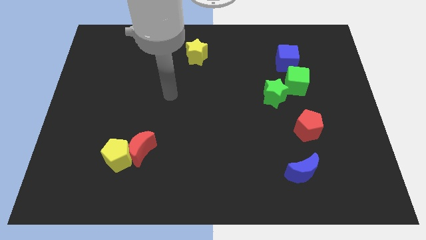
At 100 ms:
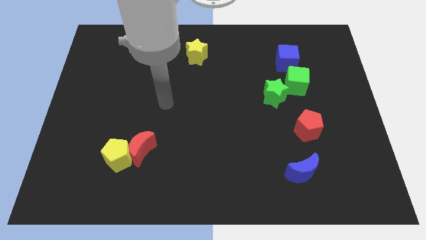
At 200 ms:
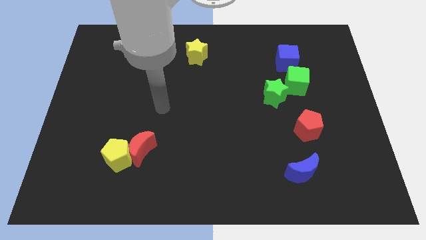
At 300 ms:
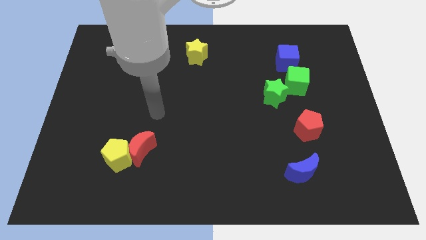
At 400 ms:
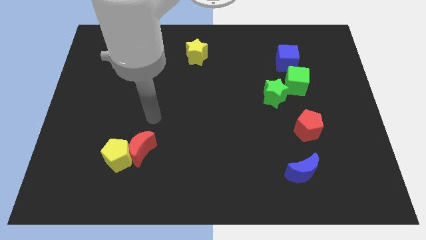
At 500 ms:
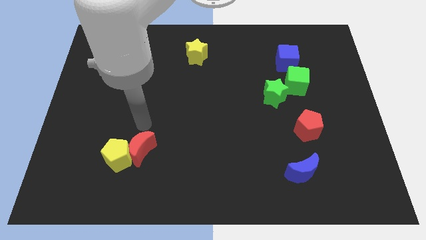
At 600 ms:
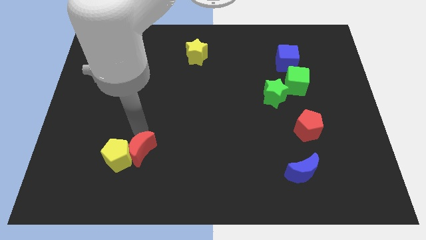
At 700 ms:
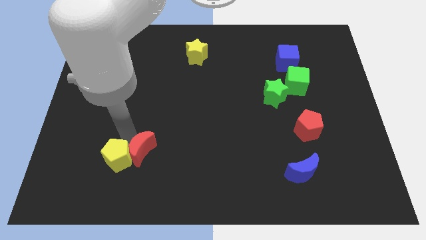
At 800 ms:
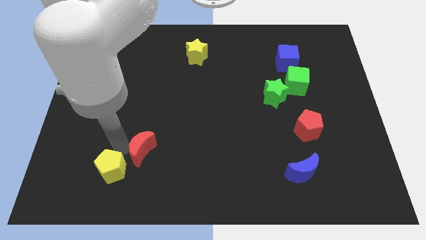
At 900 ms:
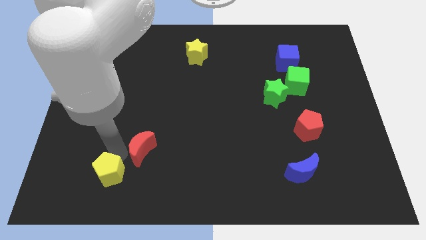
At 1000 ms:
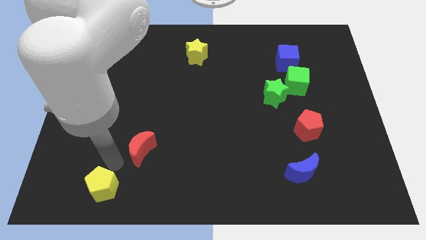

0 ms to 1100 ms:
pull the red moon apart from the yellow pentagon

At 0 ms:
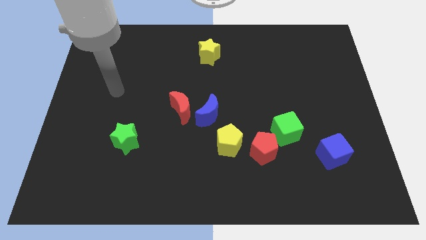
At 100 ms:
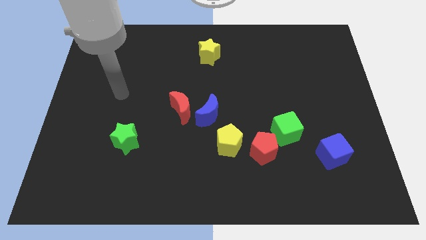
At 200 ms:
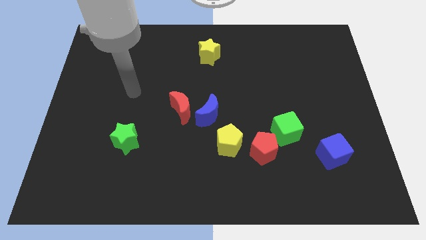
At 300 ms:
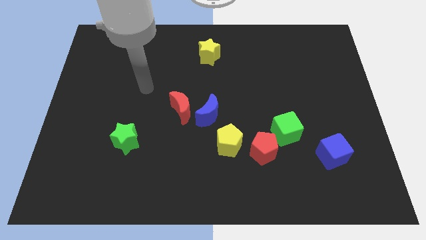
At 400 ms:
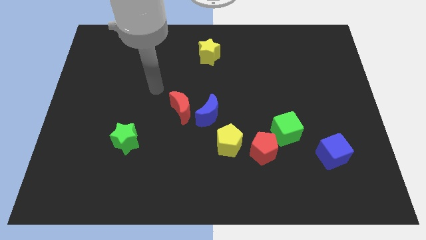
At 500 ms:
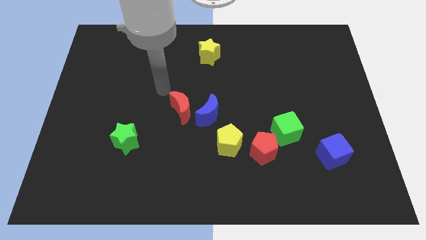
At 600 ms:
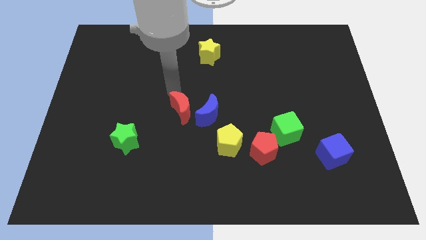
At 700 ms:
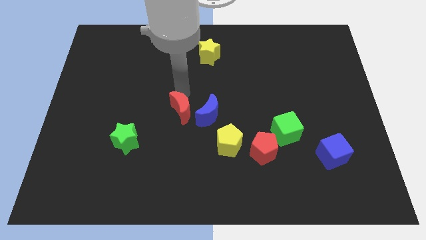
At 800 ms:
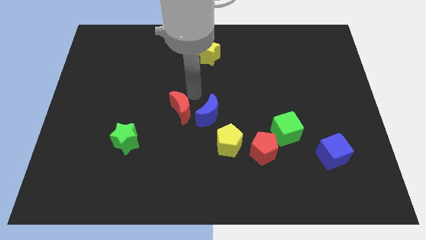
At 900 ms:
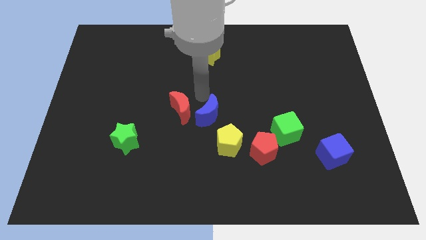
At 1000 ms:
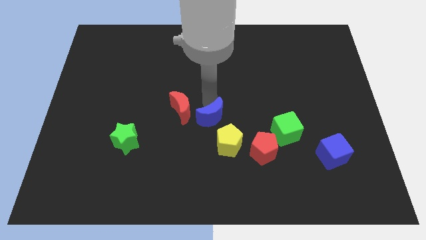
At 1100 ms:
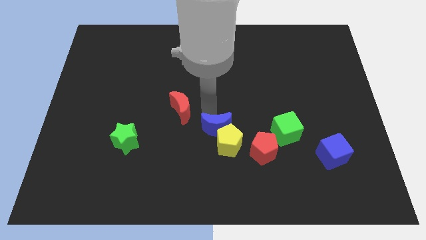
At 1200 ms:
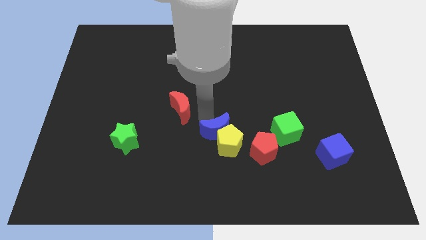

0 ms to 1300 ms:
move the red moon away from the blue moon

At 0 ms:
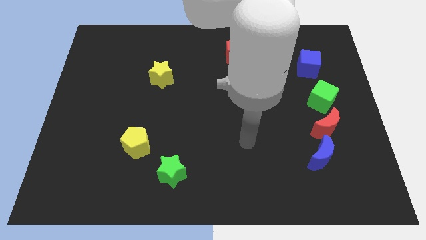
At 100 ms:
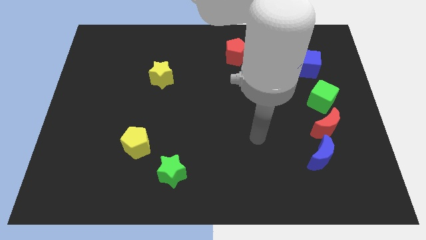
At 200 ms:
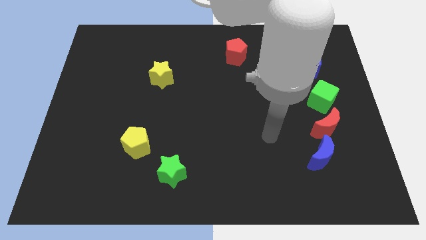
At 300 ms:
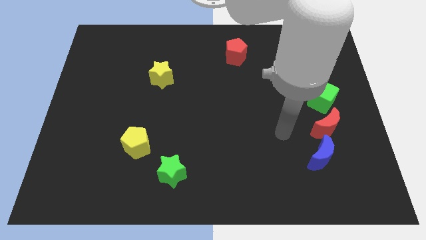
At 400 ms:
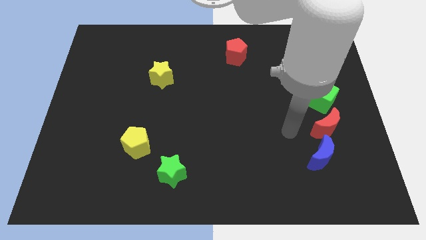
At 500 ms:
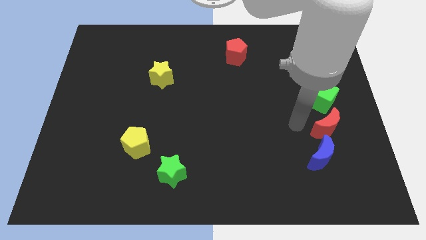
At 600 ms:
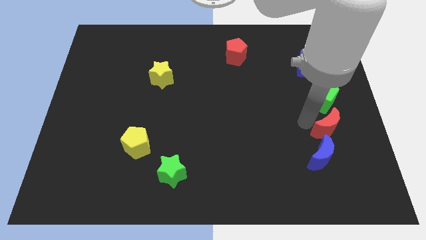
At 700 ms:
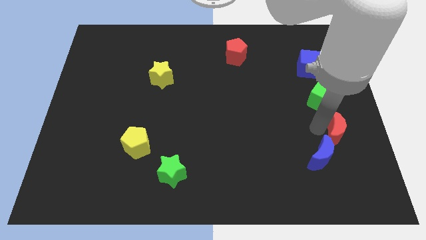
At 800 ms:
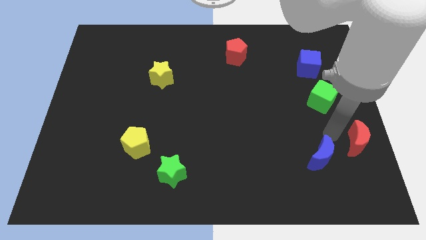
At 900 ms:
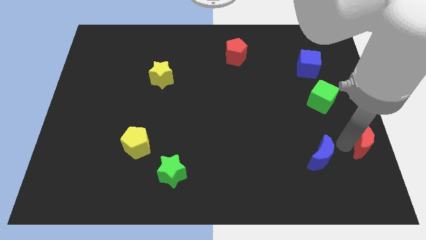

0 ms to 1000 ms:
pull the blue moon apart from the red moon

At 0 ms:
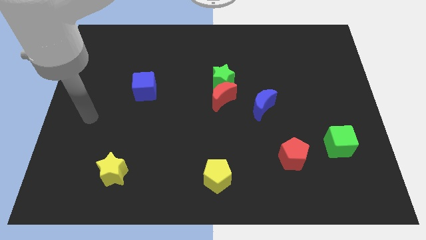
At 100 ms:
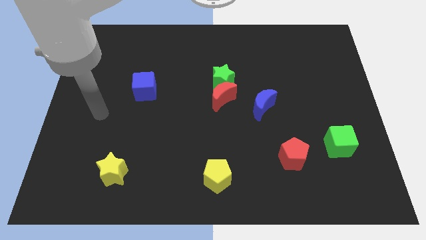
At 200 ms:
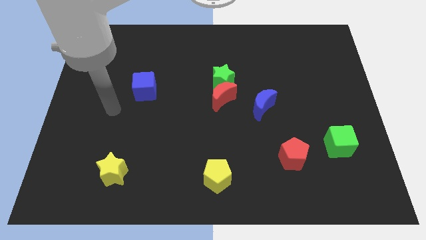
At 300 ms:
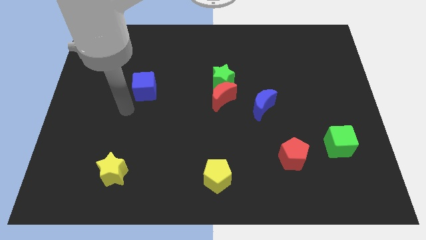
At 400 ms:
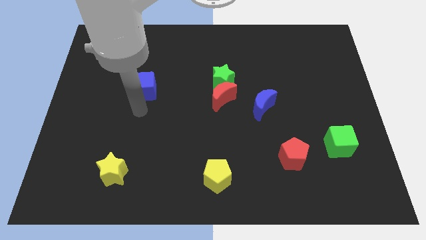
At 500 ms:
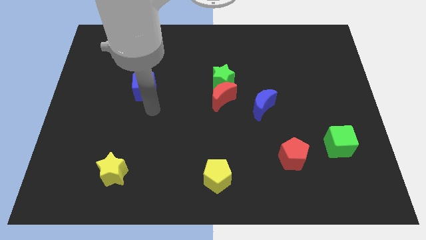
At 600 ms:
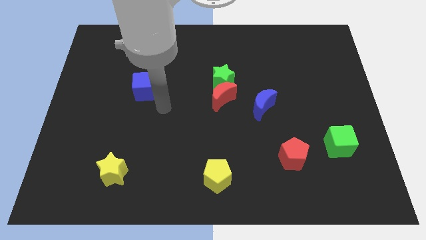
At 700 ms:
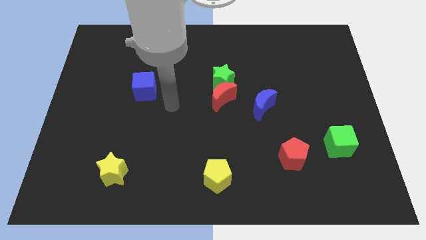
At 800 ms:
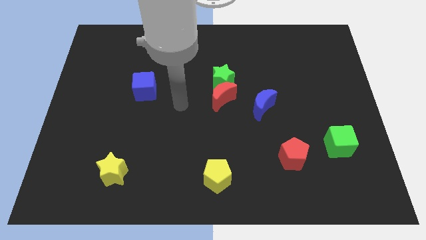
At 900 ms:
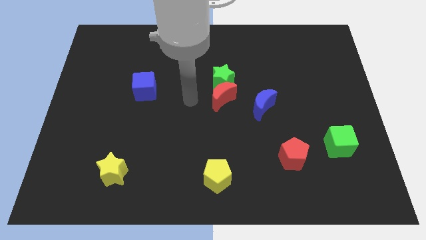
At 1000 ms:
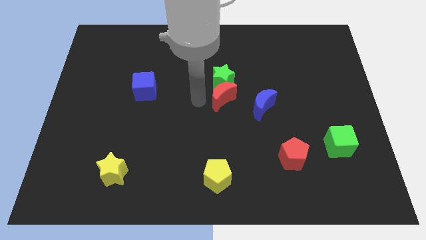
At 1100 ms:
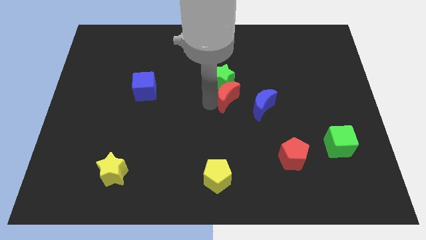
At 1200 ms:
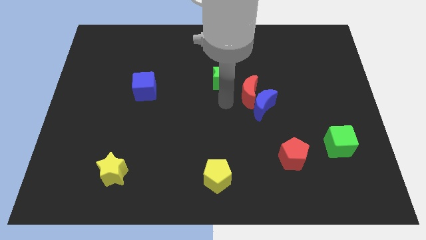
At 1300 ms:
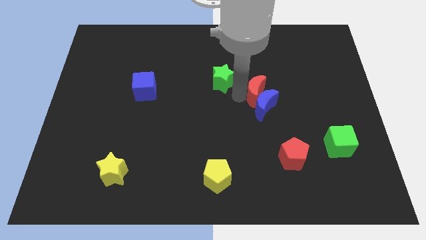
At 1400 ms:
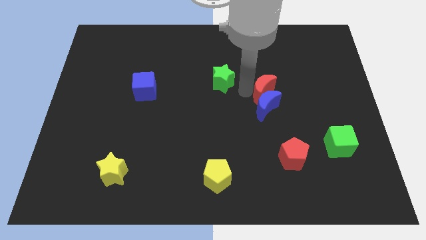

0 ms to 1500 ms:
separate the green star from the red moon

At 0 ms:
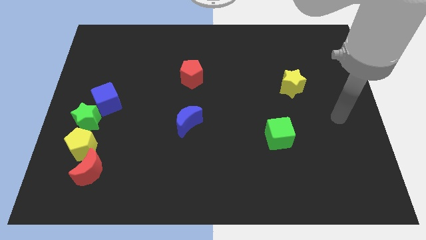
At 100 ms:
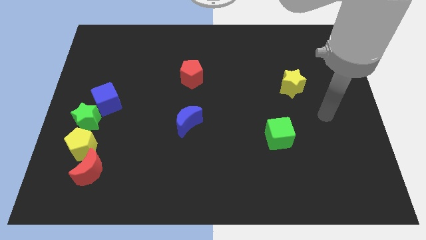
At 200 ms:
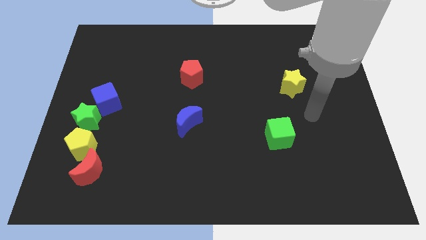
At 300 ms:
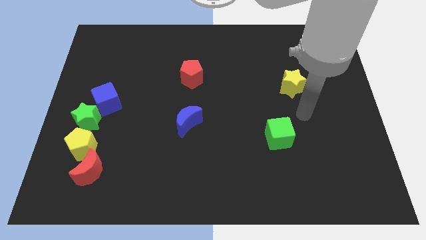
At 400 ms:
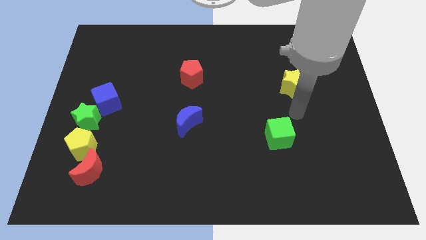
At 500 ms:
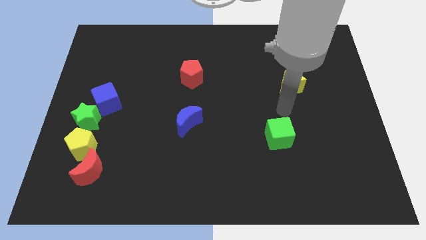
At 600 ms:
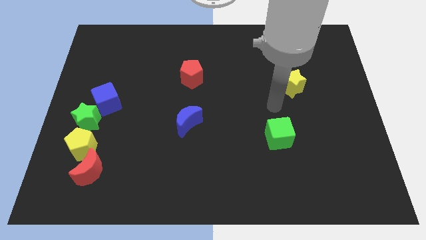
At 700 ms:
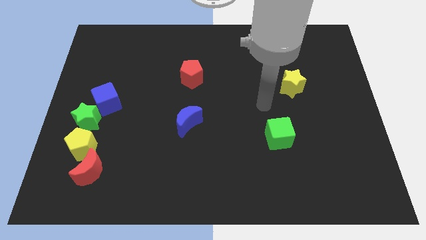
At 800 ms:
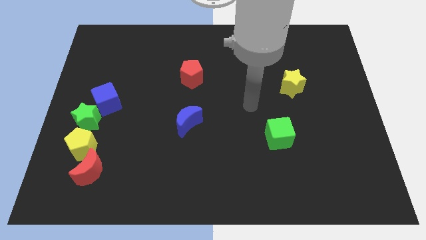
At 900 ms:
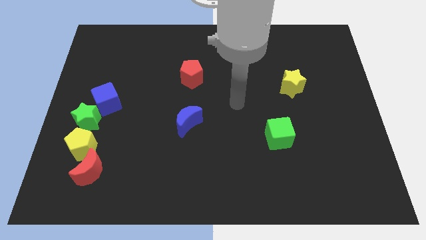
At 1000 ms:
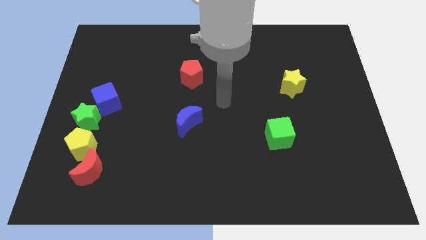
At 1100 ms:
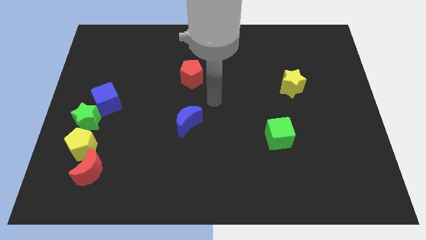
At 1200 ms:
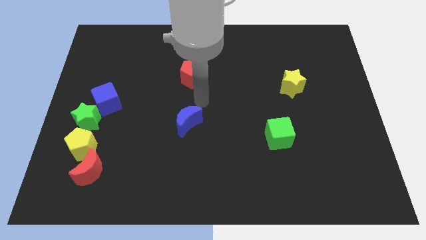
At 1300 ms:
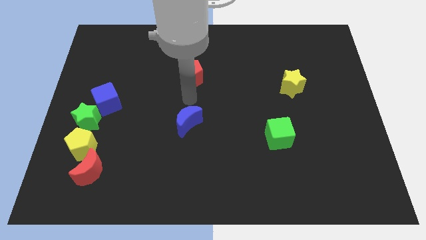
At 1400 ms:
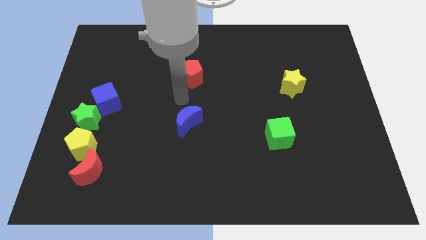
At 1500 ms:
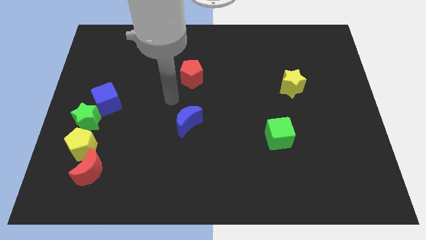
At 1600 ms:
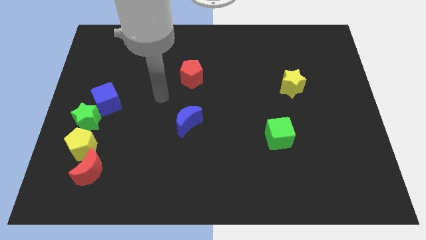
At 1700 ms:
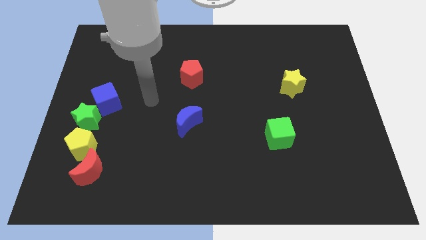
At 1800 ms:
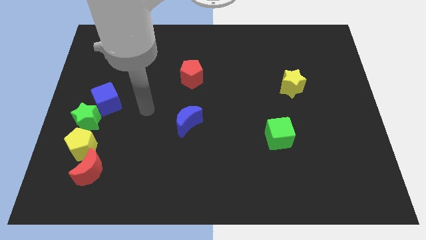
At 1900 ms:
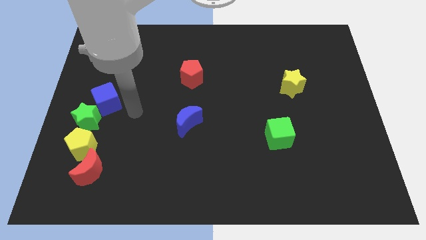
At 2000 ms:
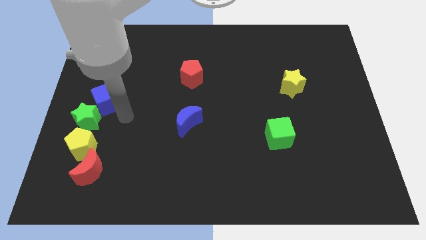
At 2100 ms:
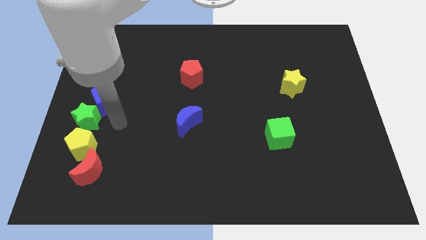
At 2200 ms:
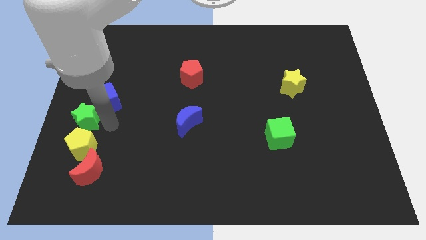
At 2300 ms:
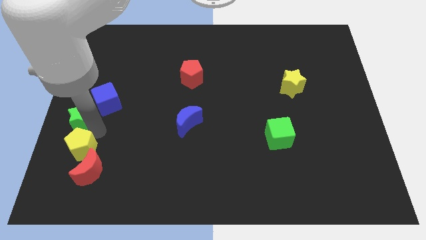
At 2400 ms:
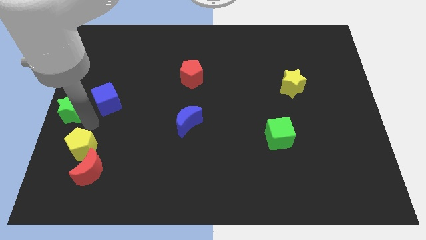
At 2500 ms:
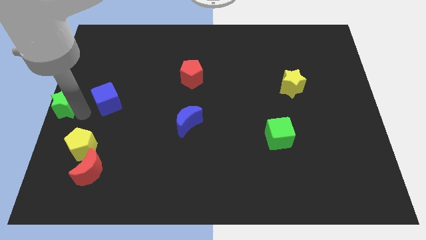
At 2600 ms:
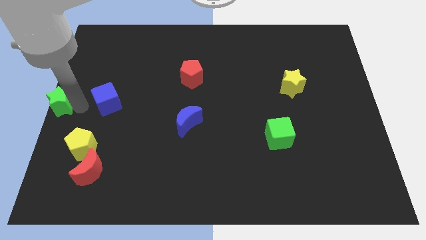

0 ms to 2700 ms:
pull the blue cube apart from the green star

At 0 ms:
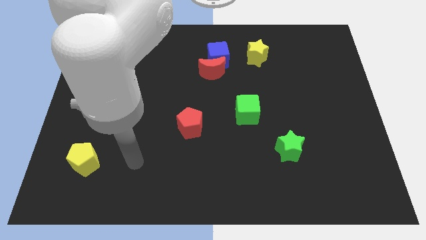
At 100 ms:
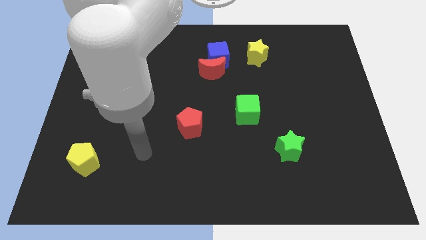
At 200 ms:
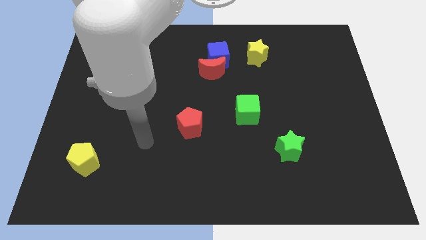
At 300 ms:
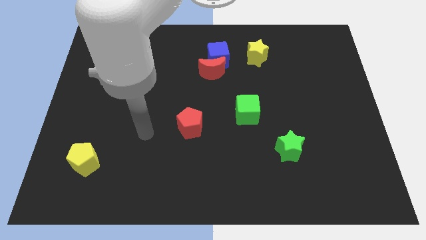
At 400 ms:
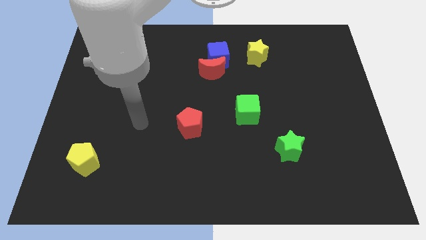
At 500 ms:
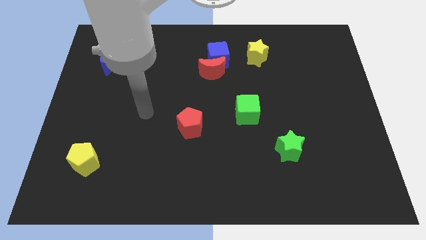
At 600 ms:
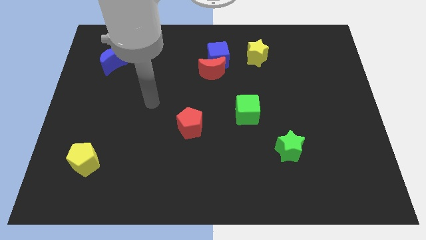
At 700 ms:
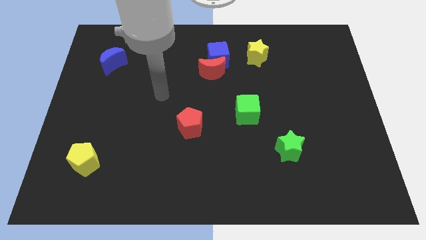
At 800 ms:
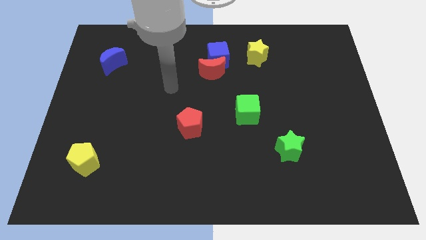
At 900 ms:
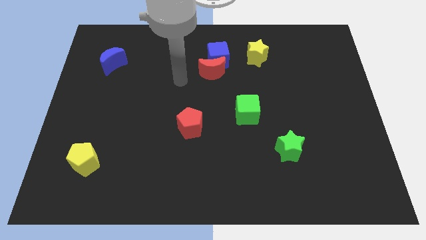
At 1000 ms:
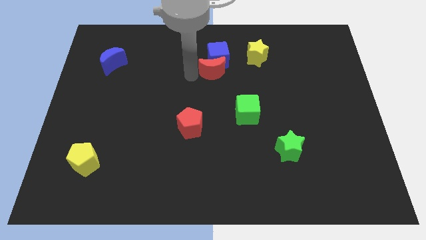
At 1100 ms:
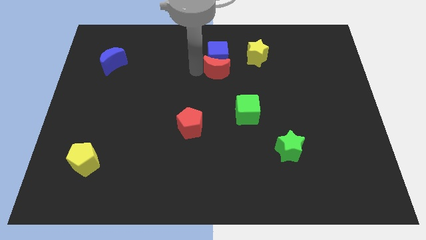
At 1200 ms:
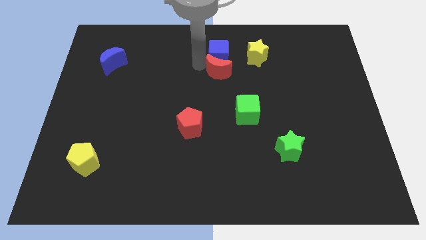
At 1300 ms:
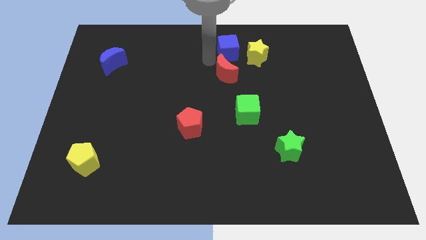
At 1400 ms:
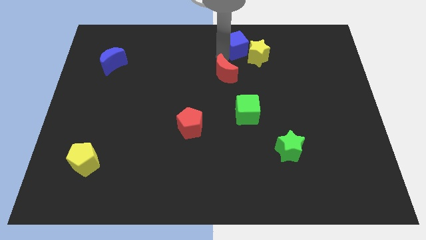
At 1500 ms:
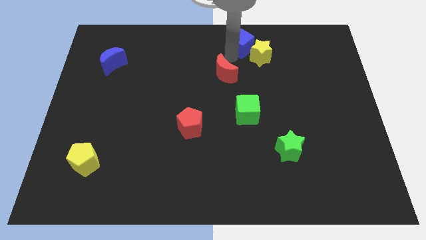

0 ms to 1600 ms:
separate the red moon from the blue cube

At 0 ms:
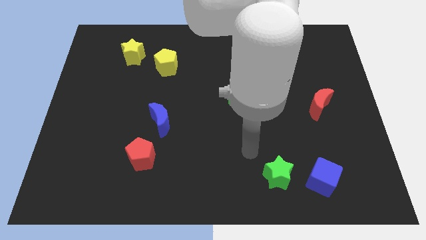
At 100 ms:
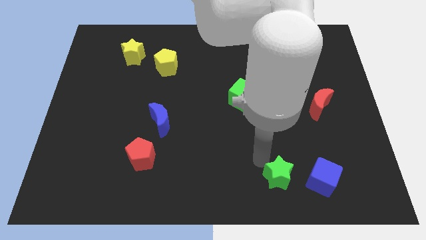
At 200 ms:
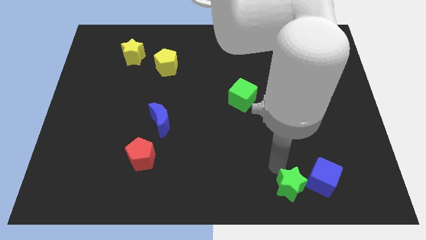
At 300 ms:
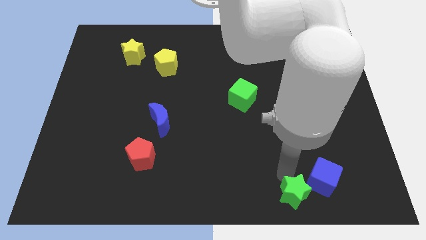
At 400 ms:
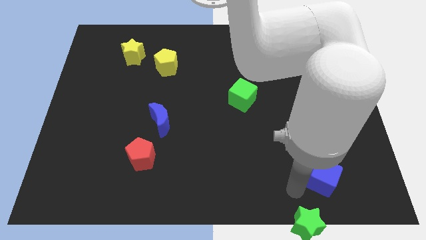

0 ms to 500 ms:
separate the blue cube from the green star
